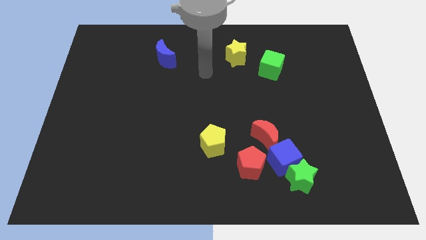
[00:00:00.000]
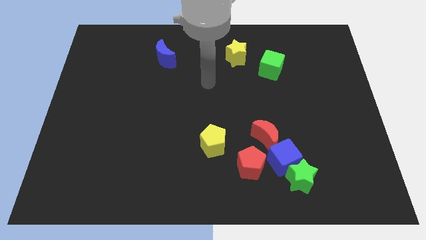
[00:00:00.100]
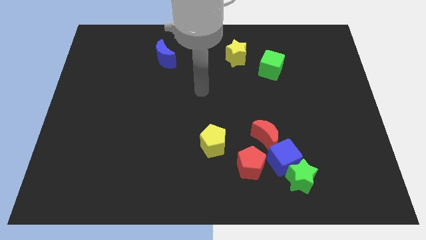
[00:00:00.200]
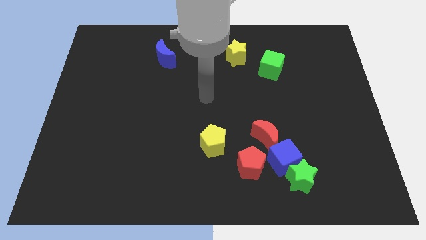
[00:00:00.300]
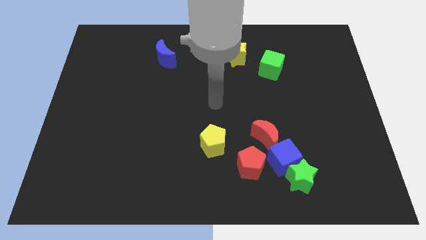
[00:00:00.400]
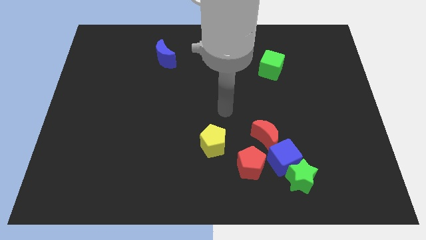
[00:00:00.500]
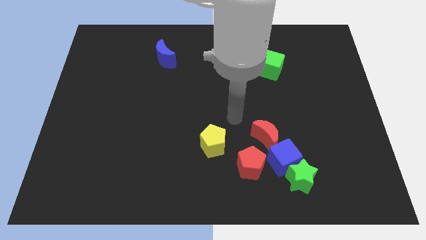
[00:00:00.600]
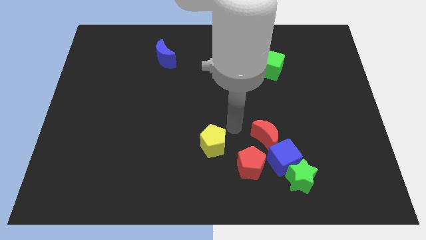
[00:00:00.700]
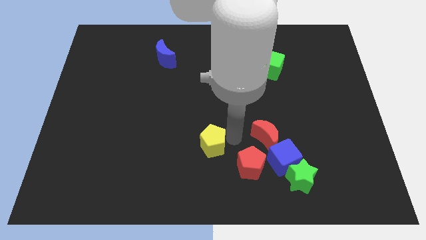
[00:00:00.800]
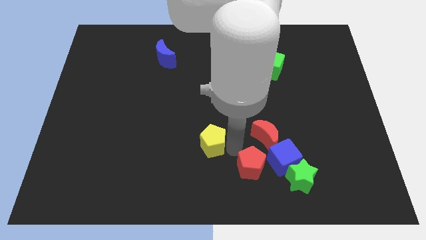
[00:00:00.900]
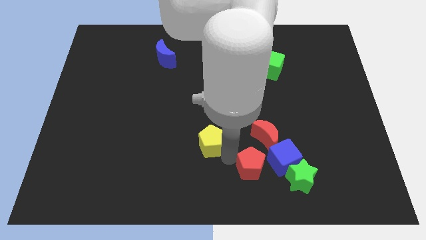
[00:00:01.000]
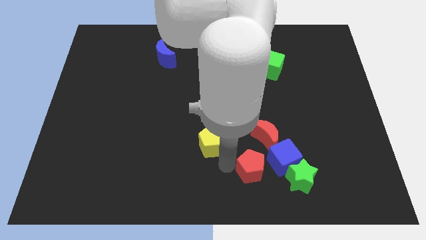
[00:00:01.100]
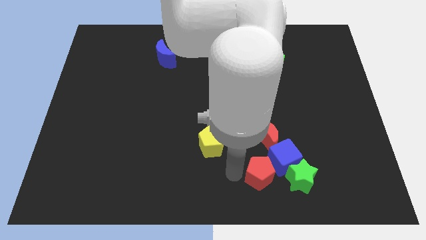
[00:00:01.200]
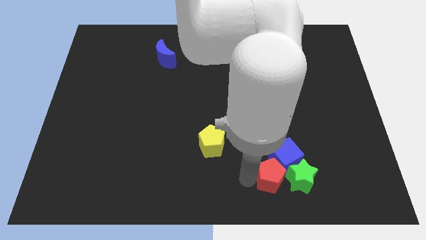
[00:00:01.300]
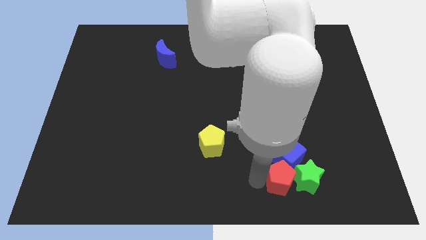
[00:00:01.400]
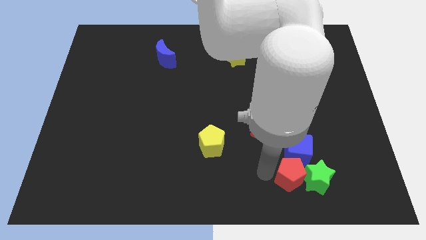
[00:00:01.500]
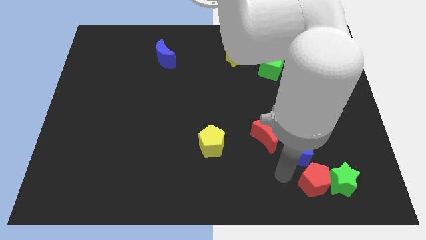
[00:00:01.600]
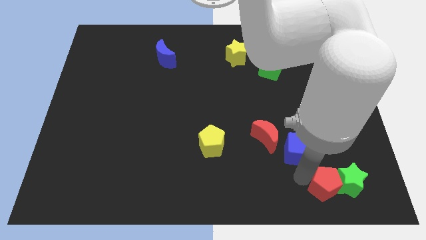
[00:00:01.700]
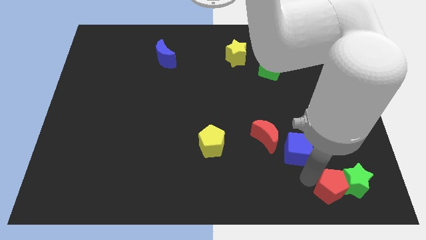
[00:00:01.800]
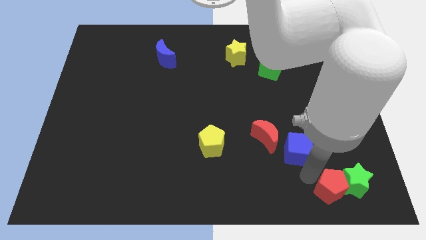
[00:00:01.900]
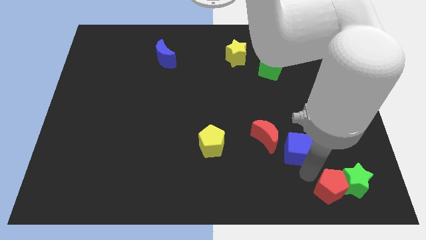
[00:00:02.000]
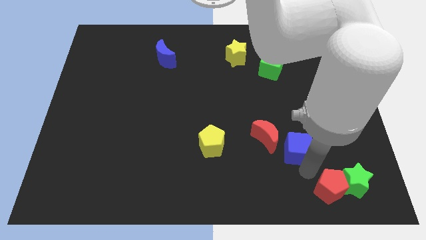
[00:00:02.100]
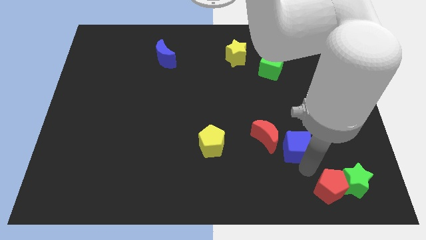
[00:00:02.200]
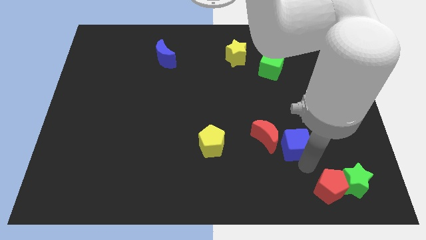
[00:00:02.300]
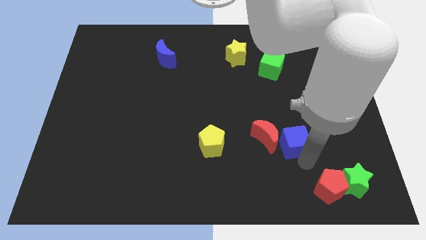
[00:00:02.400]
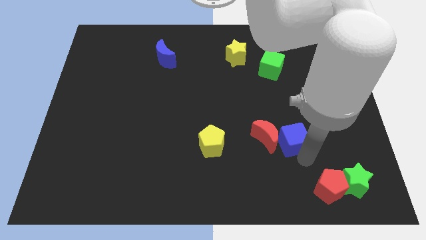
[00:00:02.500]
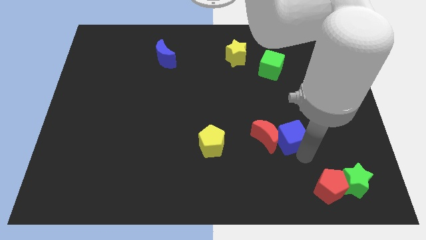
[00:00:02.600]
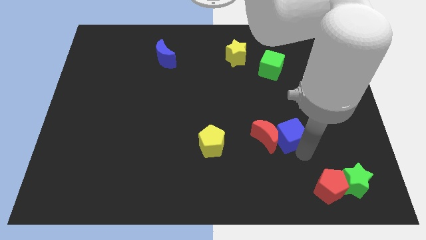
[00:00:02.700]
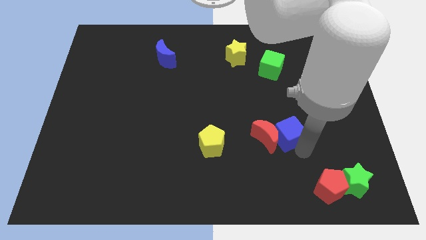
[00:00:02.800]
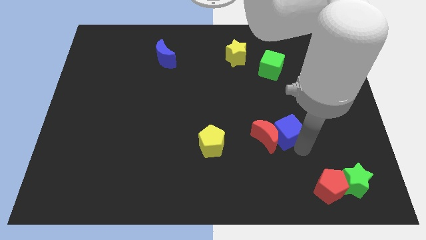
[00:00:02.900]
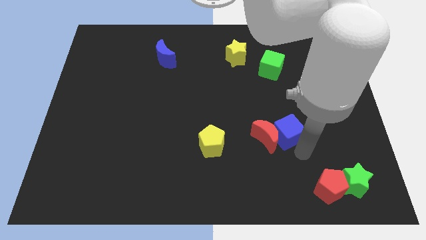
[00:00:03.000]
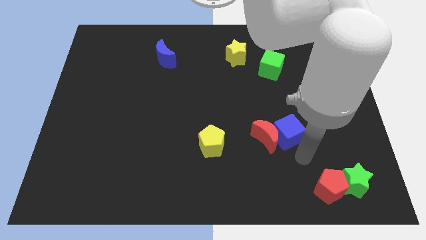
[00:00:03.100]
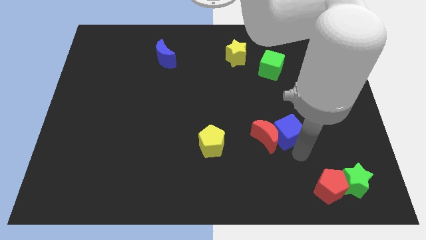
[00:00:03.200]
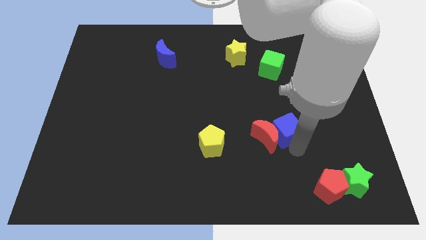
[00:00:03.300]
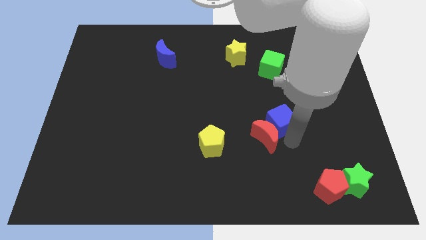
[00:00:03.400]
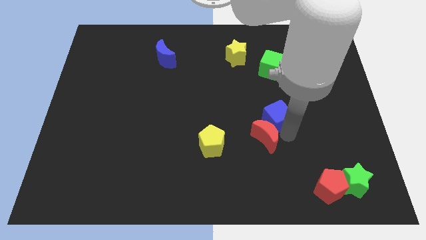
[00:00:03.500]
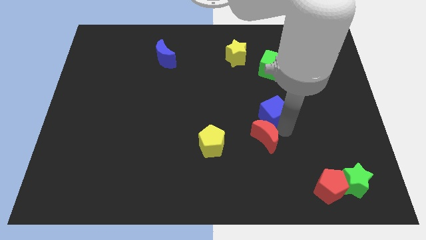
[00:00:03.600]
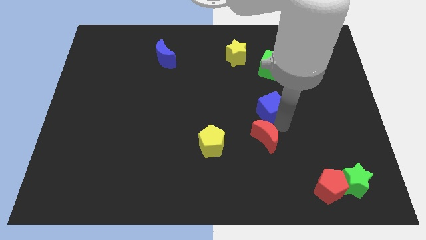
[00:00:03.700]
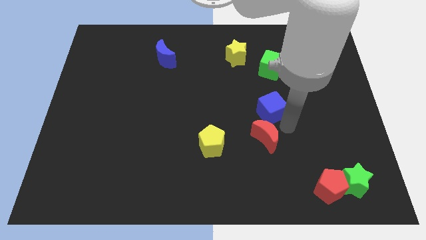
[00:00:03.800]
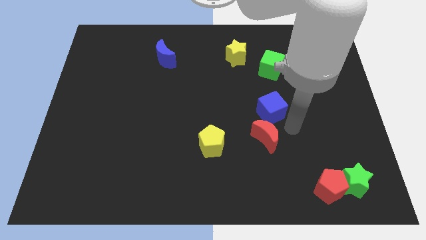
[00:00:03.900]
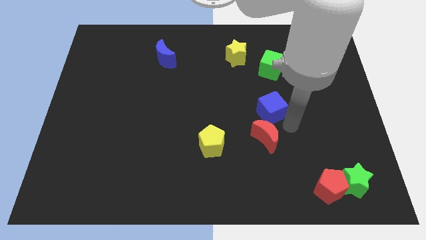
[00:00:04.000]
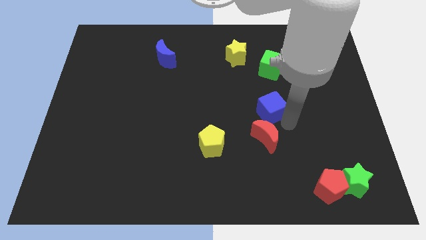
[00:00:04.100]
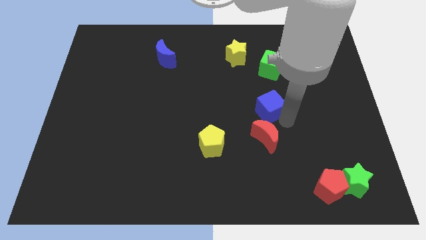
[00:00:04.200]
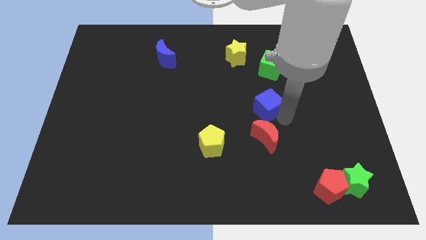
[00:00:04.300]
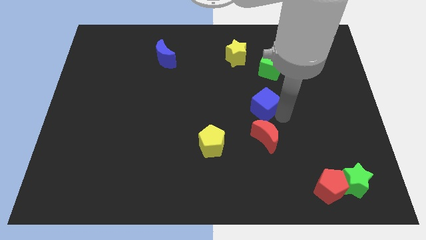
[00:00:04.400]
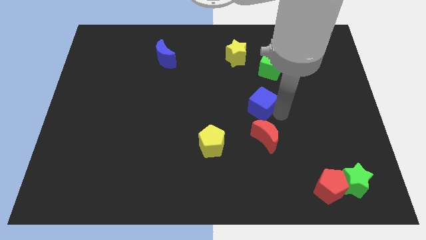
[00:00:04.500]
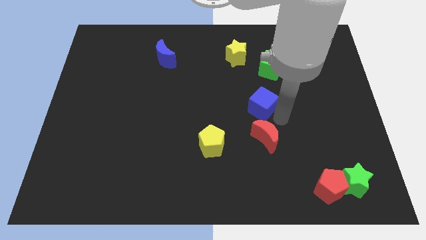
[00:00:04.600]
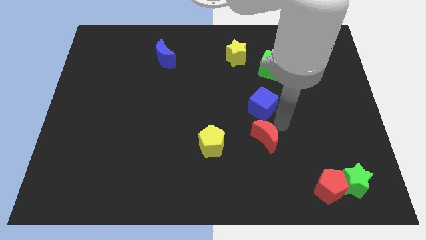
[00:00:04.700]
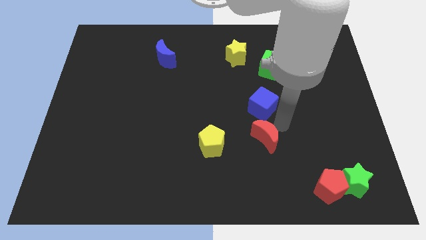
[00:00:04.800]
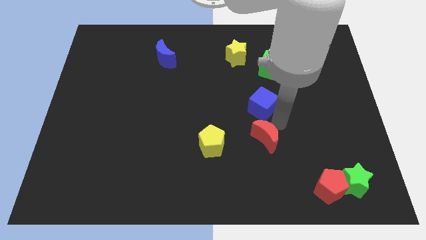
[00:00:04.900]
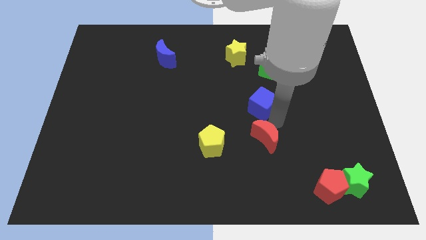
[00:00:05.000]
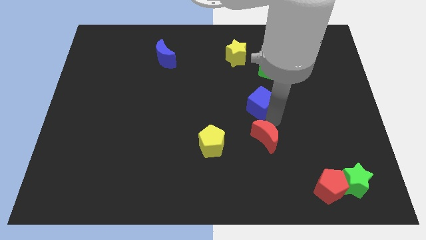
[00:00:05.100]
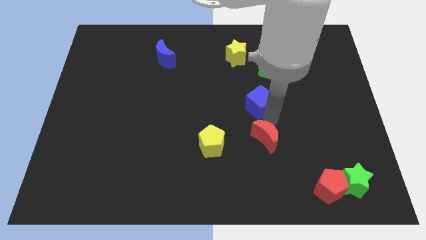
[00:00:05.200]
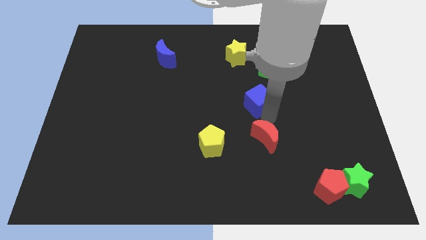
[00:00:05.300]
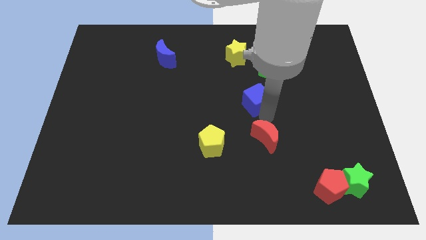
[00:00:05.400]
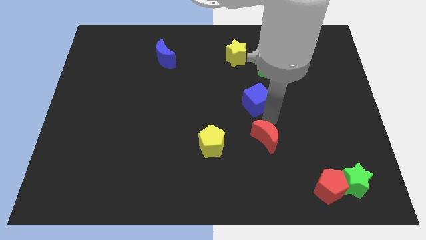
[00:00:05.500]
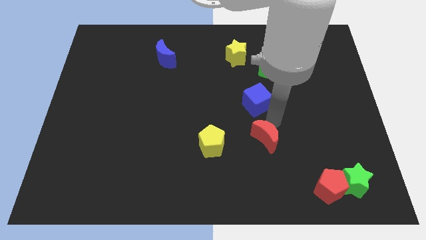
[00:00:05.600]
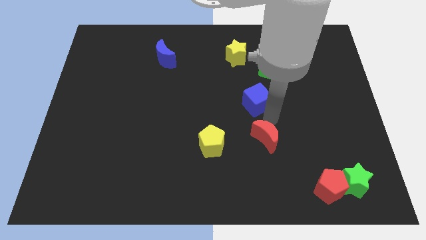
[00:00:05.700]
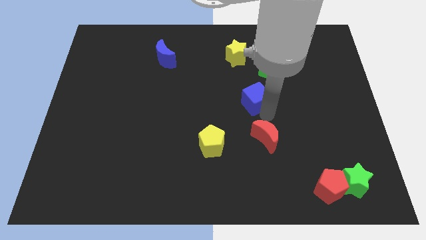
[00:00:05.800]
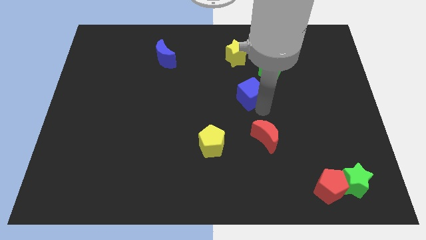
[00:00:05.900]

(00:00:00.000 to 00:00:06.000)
put the blue cube below the yellow star

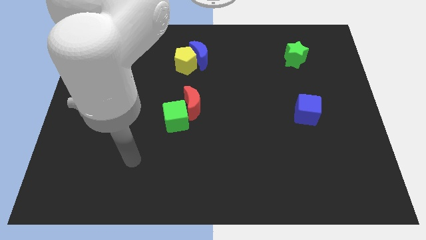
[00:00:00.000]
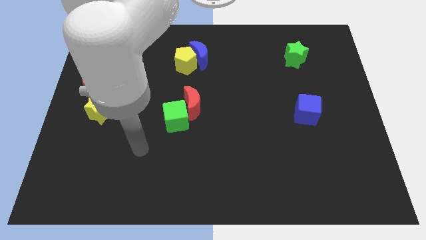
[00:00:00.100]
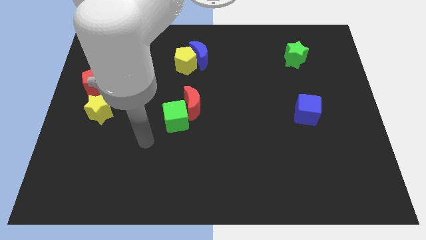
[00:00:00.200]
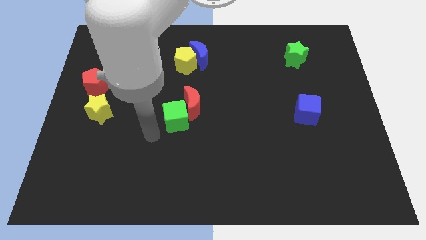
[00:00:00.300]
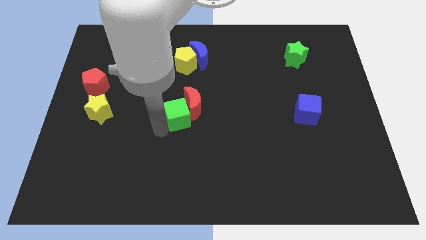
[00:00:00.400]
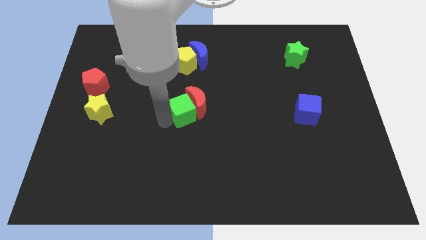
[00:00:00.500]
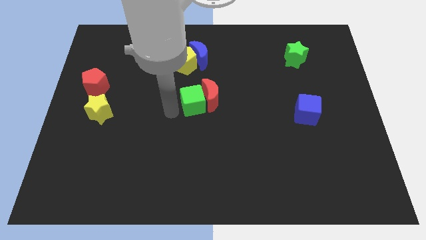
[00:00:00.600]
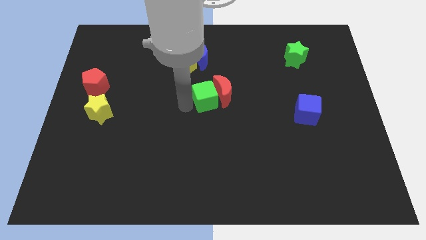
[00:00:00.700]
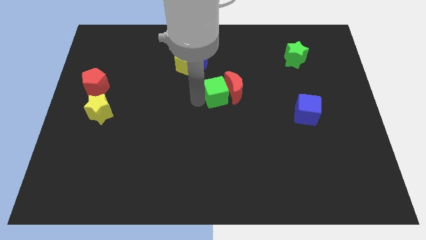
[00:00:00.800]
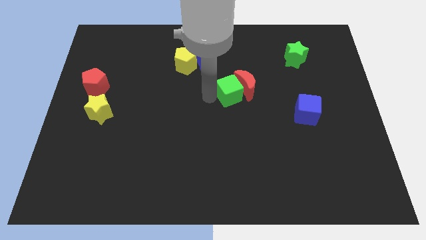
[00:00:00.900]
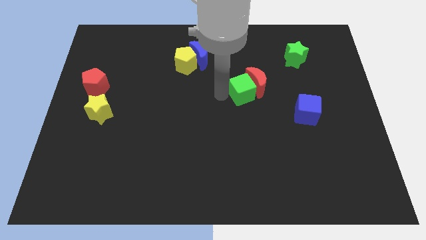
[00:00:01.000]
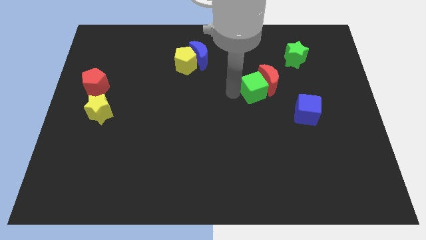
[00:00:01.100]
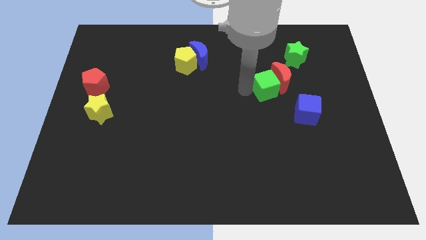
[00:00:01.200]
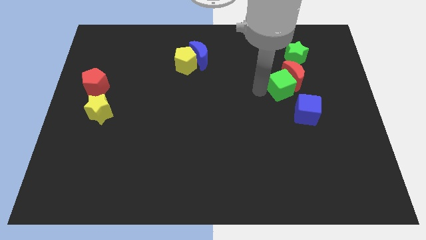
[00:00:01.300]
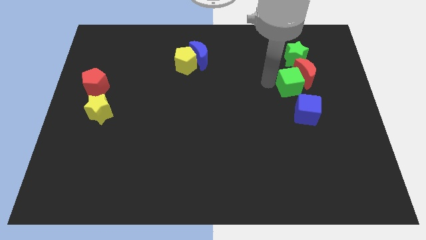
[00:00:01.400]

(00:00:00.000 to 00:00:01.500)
push the red moon to the bottom right of the green star
